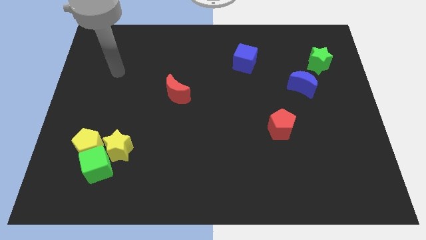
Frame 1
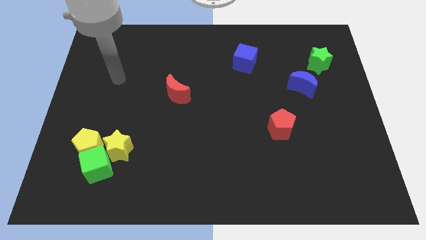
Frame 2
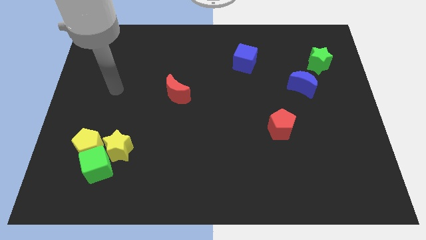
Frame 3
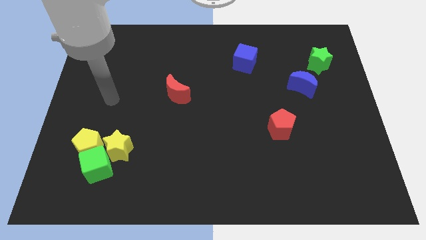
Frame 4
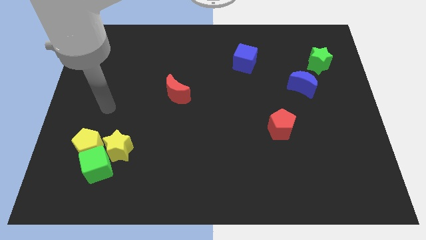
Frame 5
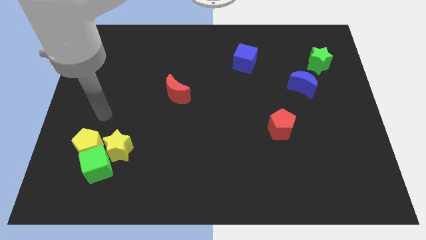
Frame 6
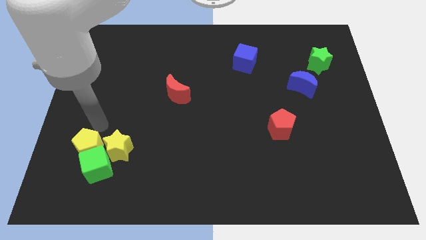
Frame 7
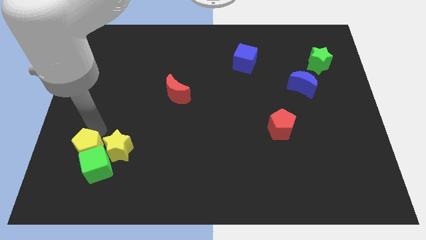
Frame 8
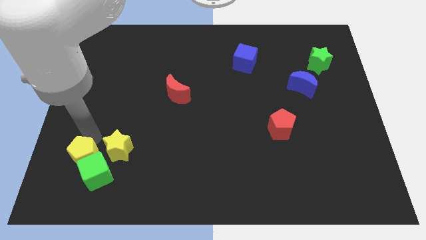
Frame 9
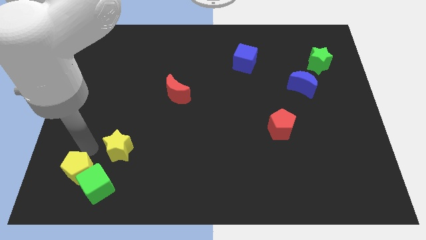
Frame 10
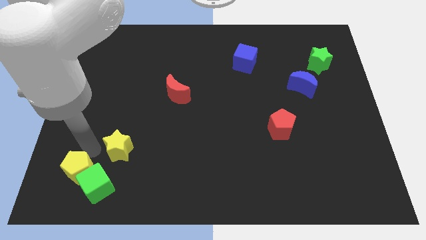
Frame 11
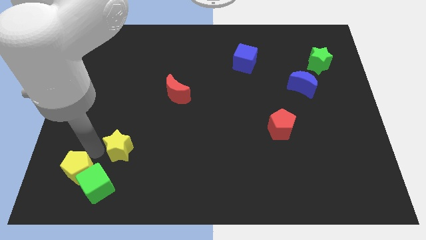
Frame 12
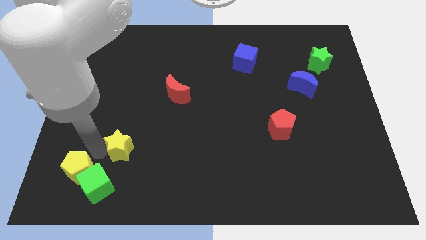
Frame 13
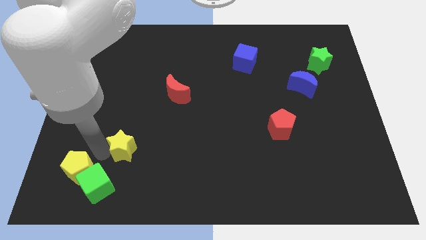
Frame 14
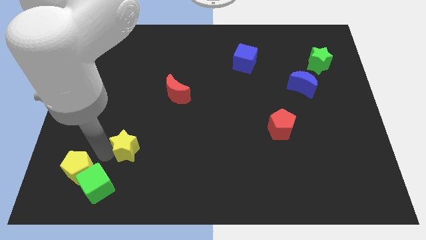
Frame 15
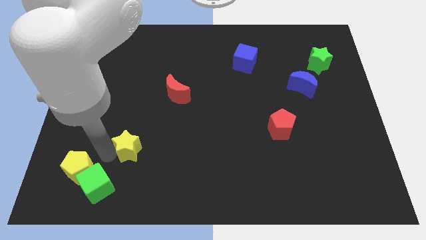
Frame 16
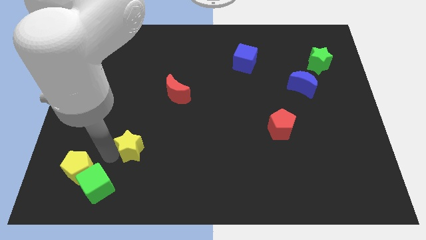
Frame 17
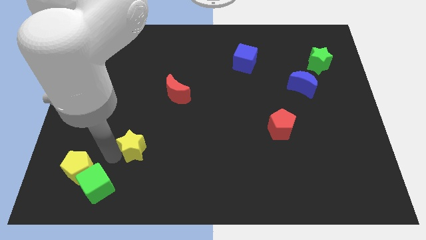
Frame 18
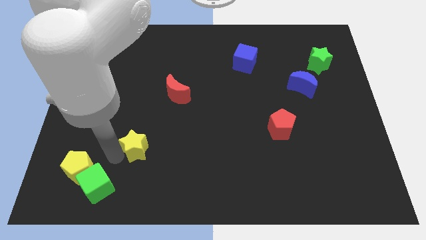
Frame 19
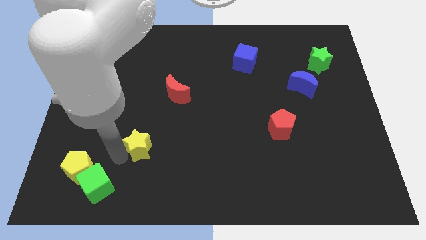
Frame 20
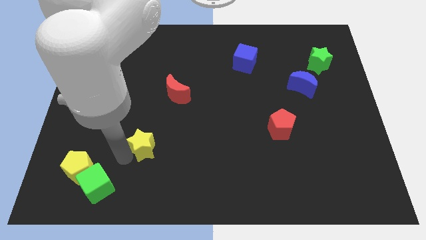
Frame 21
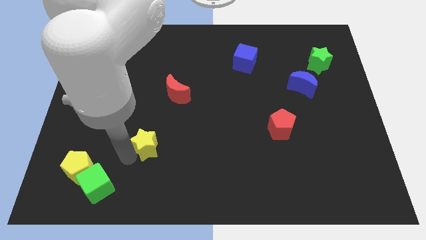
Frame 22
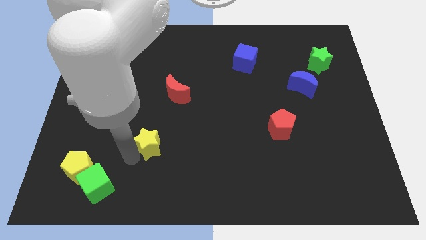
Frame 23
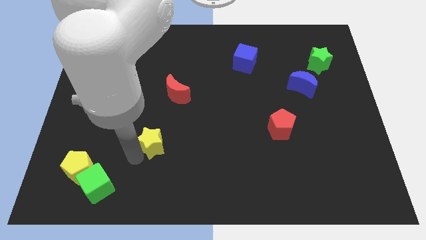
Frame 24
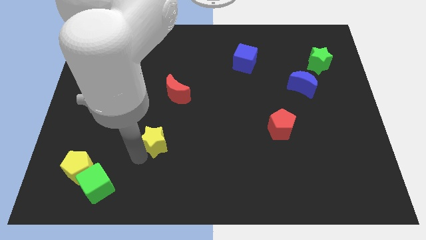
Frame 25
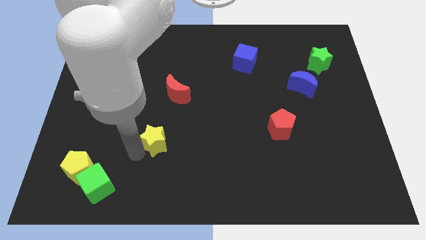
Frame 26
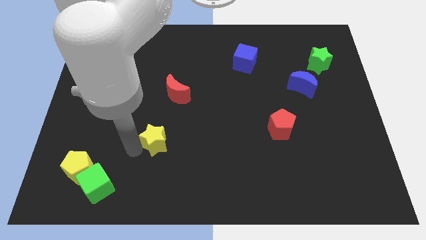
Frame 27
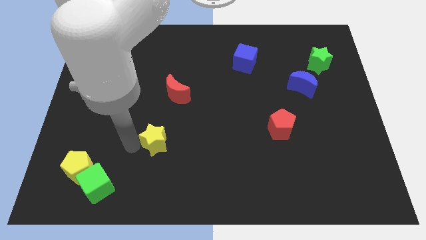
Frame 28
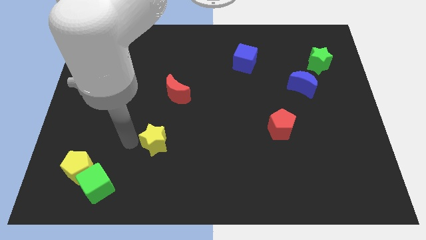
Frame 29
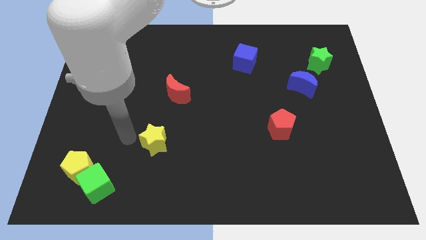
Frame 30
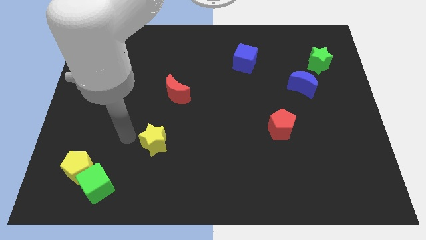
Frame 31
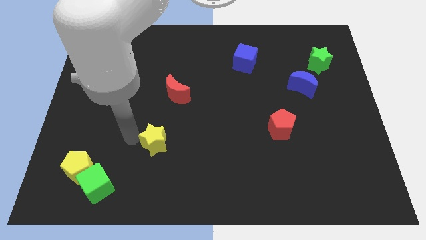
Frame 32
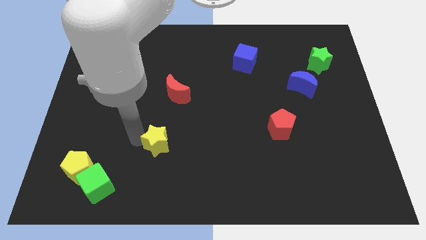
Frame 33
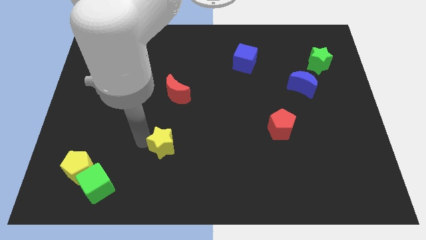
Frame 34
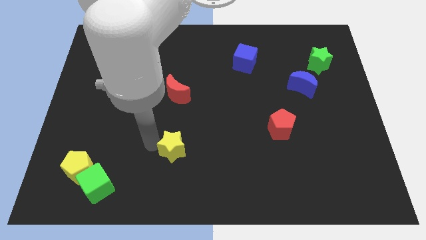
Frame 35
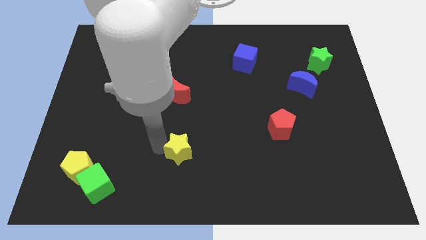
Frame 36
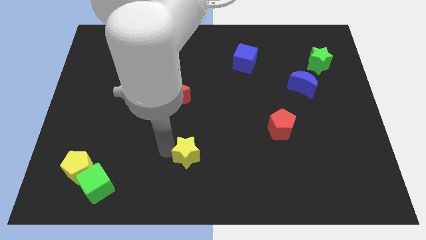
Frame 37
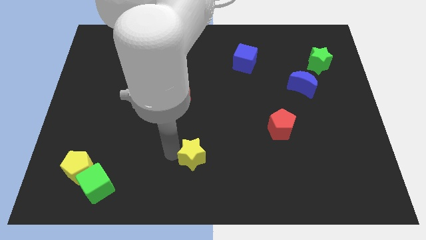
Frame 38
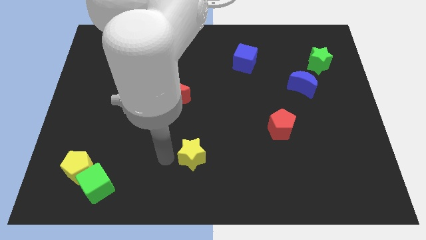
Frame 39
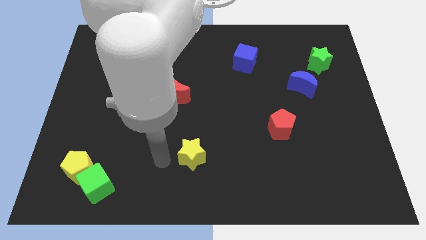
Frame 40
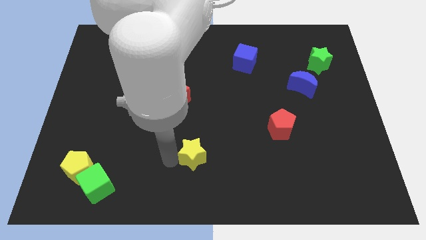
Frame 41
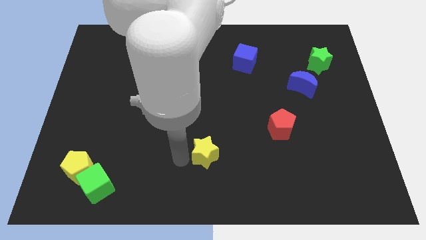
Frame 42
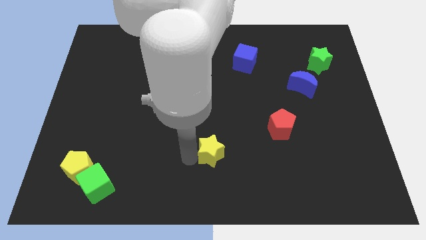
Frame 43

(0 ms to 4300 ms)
slide the yellow star to the right

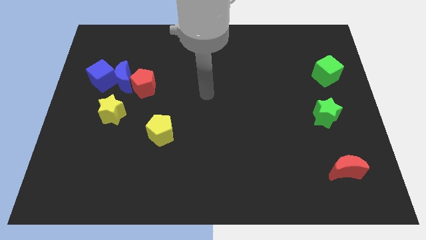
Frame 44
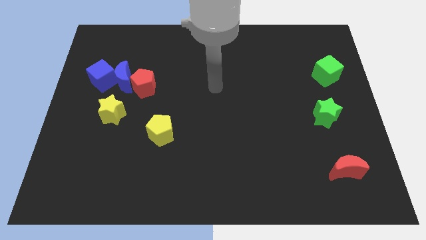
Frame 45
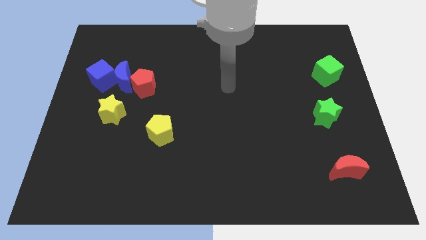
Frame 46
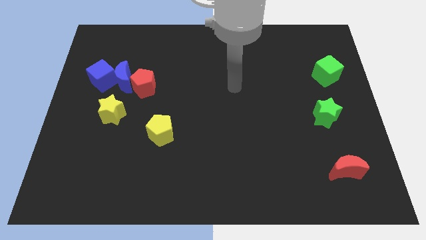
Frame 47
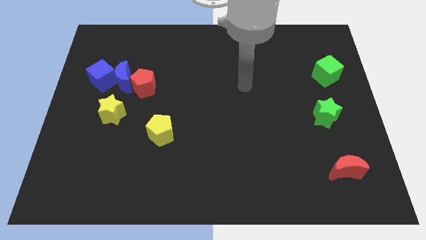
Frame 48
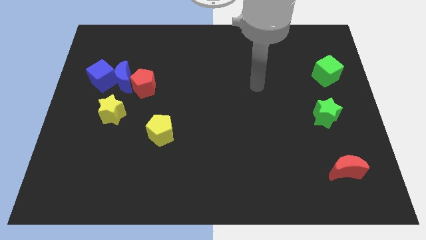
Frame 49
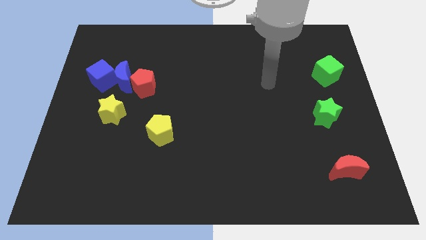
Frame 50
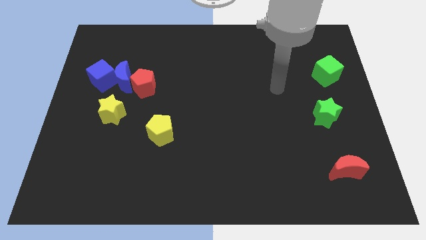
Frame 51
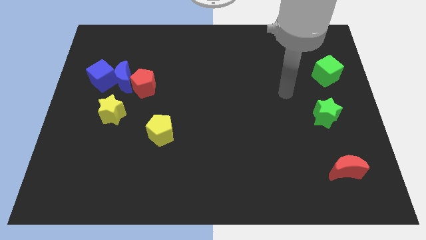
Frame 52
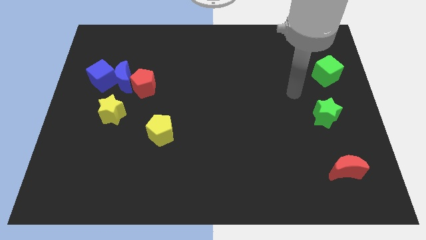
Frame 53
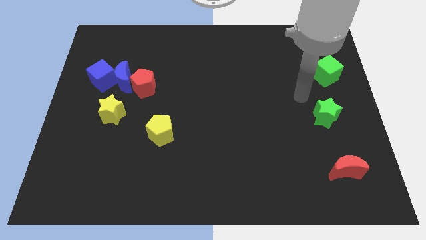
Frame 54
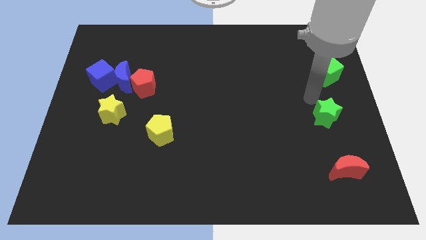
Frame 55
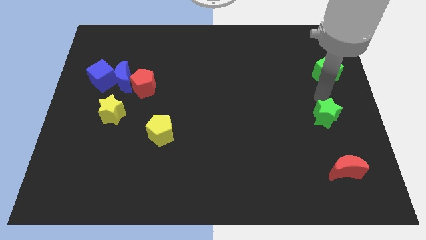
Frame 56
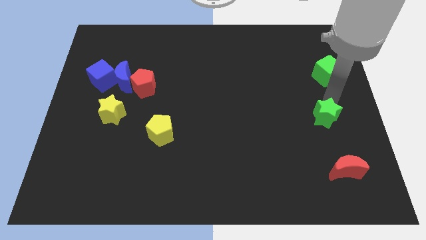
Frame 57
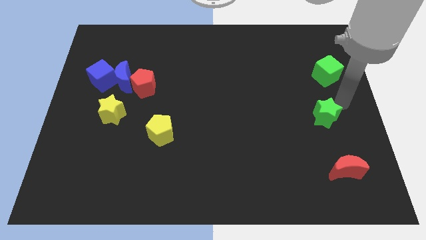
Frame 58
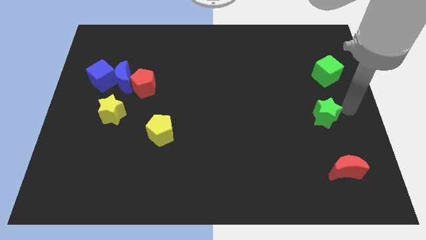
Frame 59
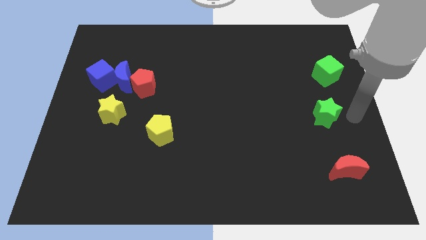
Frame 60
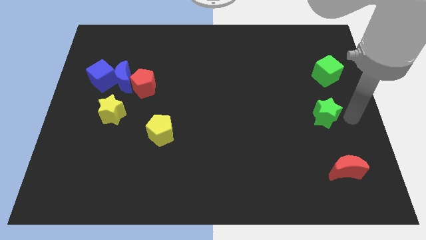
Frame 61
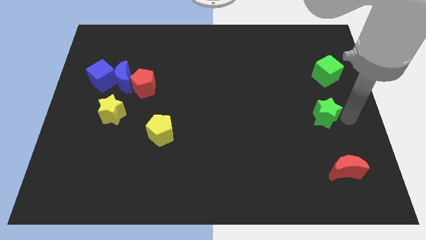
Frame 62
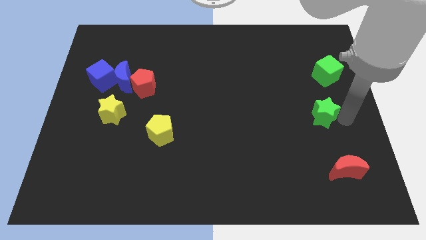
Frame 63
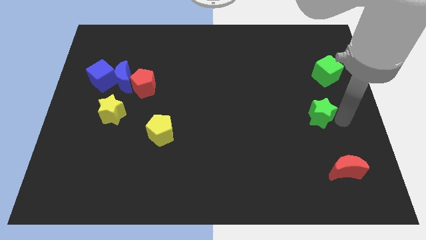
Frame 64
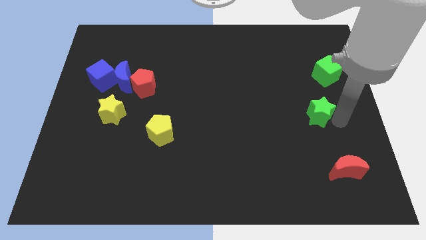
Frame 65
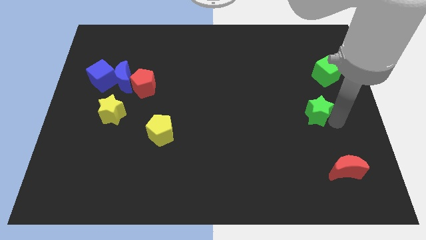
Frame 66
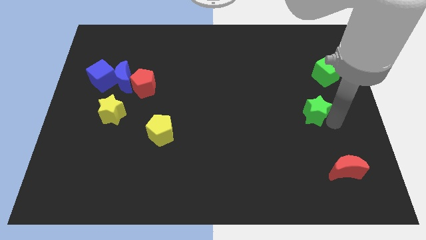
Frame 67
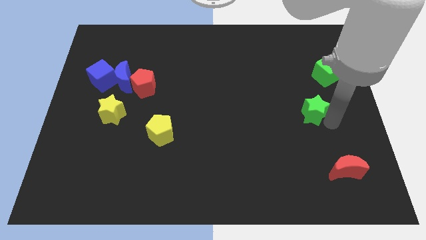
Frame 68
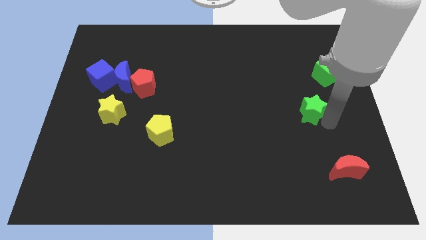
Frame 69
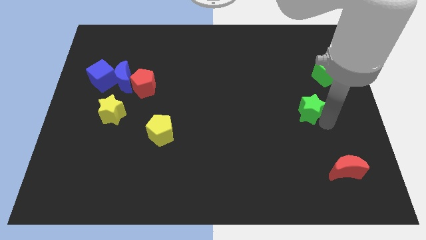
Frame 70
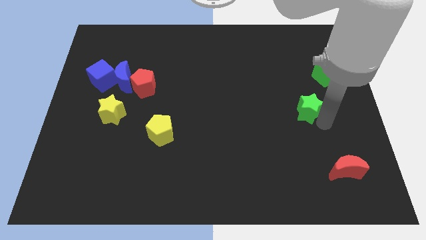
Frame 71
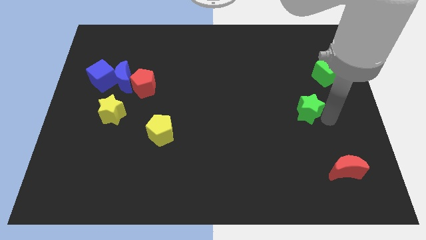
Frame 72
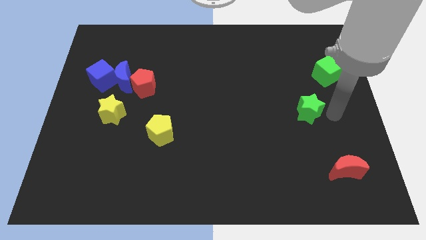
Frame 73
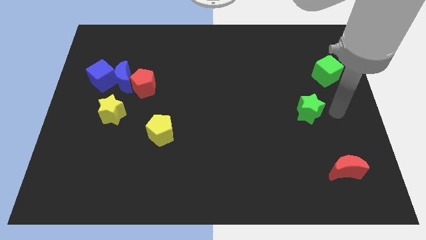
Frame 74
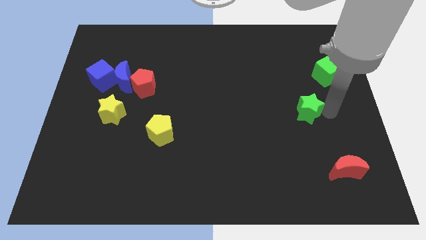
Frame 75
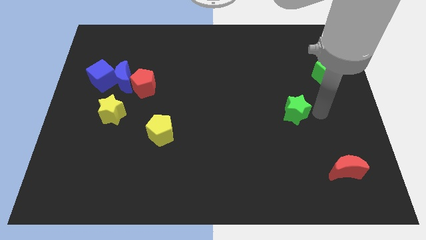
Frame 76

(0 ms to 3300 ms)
slightly slide the green star left

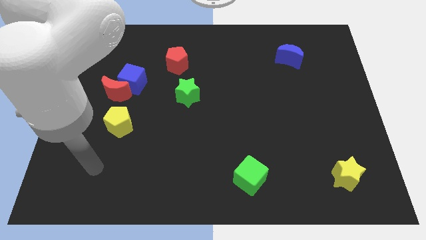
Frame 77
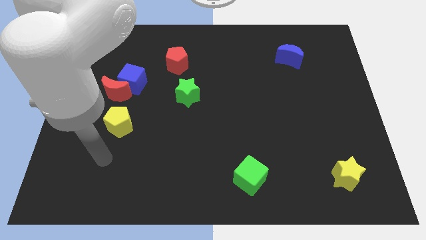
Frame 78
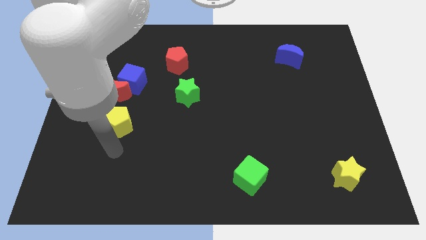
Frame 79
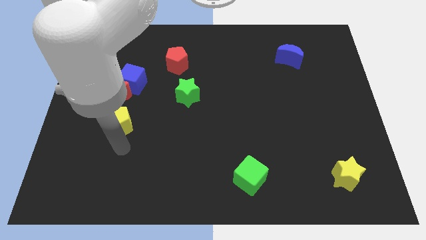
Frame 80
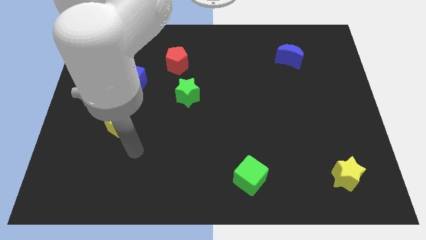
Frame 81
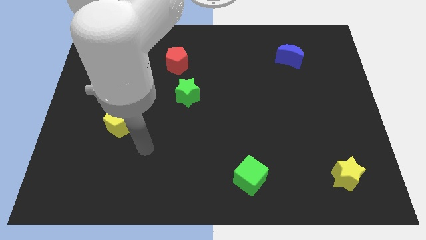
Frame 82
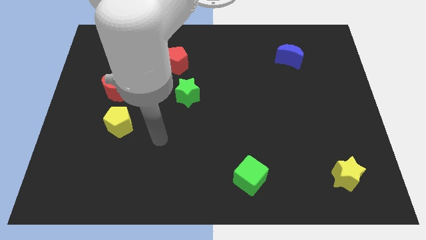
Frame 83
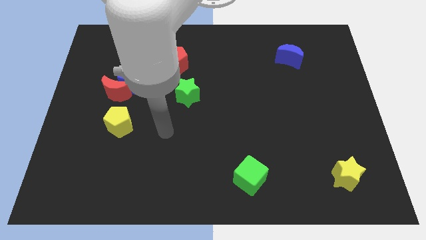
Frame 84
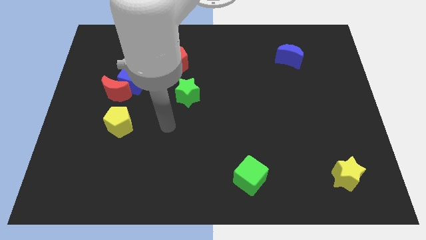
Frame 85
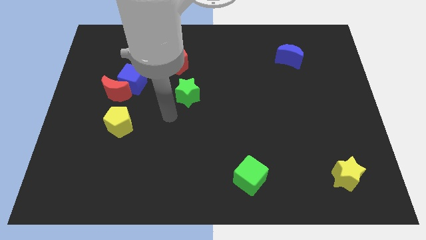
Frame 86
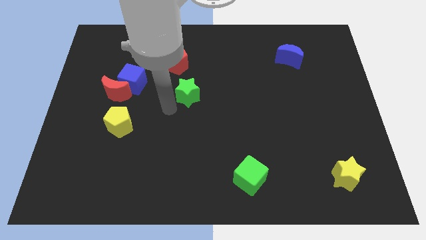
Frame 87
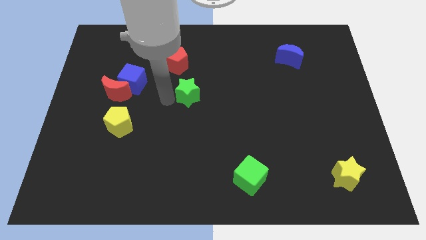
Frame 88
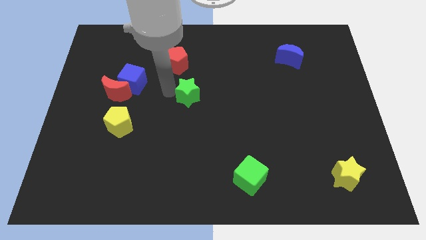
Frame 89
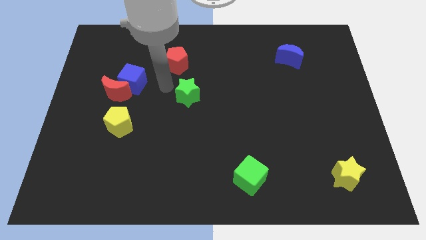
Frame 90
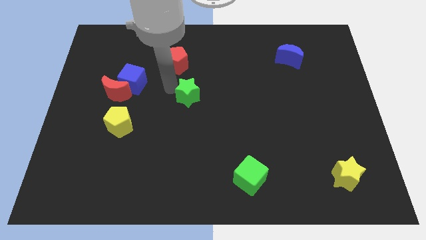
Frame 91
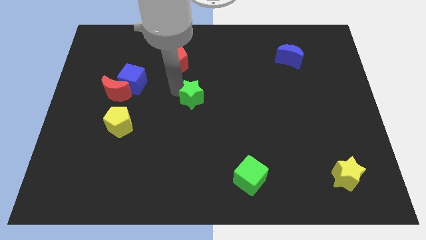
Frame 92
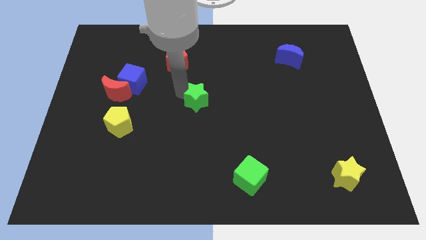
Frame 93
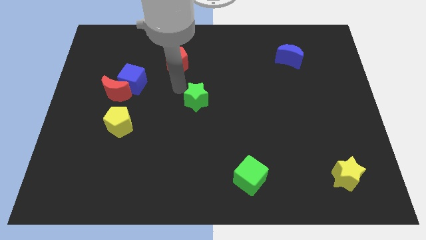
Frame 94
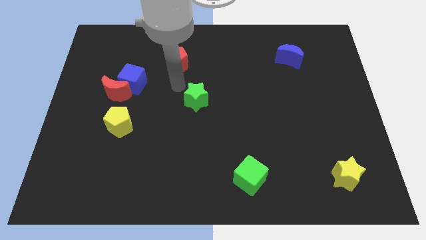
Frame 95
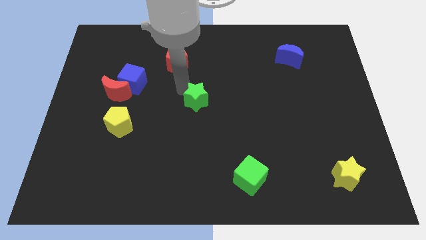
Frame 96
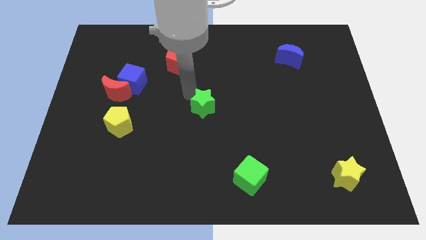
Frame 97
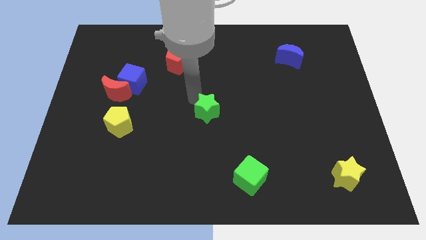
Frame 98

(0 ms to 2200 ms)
slightly move the green star downwards and to the right diagonally
